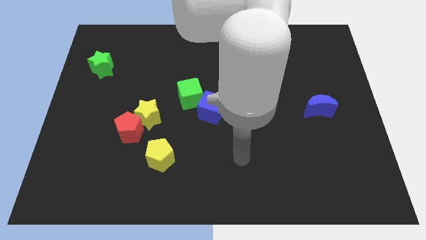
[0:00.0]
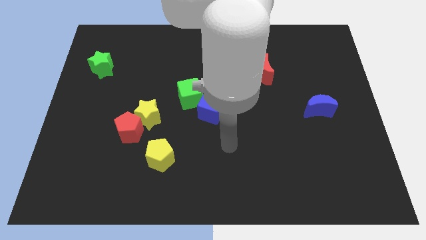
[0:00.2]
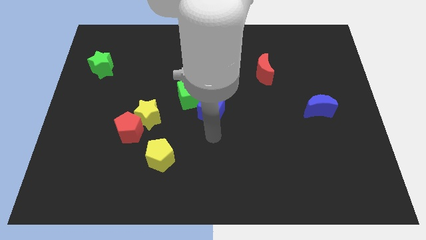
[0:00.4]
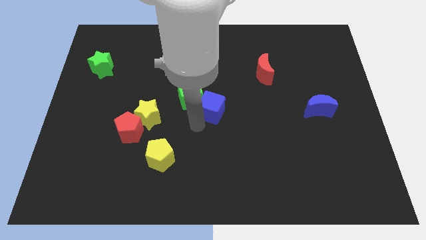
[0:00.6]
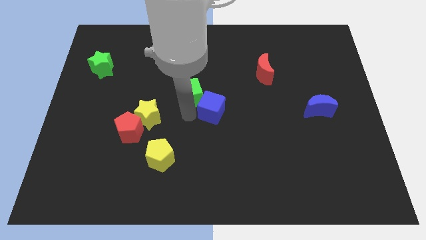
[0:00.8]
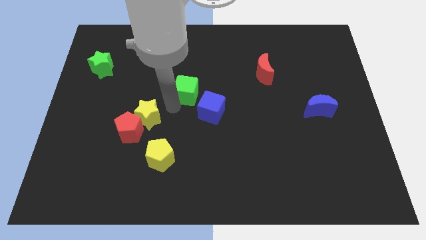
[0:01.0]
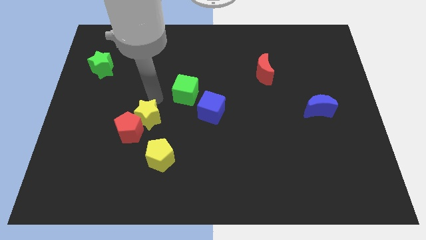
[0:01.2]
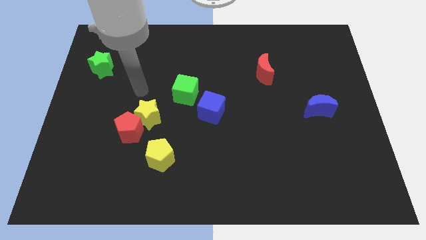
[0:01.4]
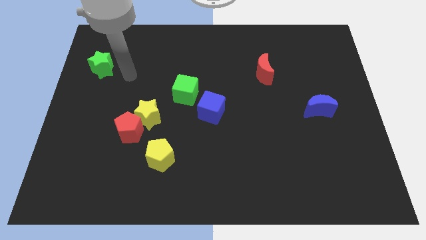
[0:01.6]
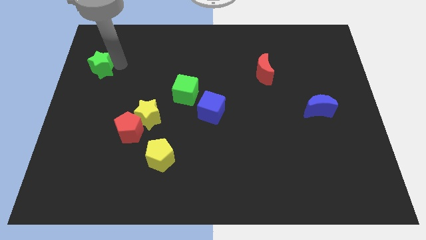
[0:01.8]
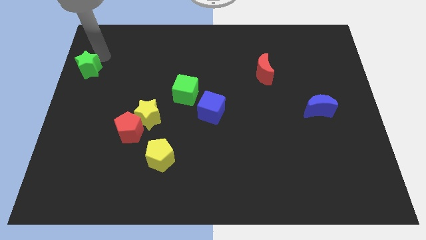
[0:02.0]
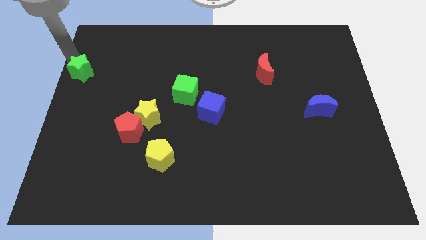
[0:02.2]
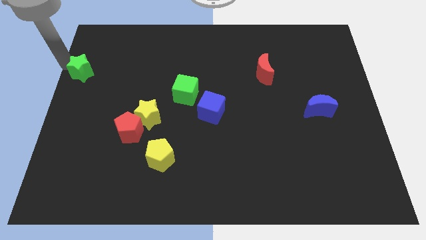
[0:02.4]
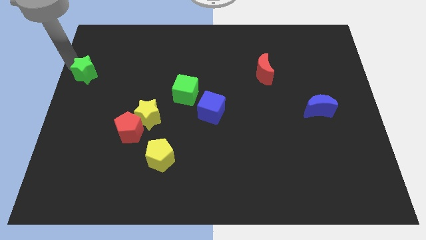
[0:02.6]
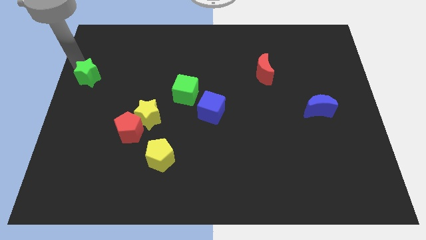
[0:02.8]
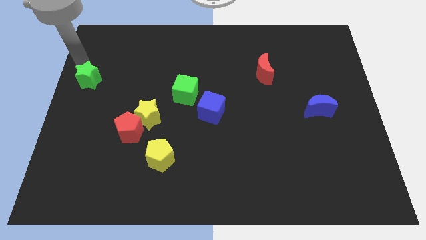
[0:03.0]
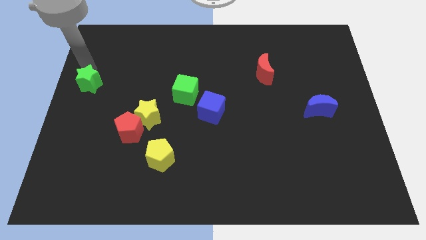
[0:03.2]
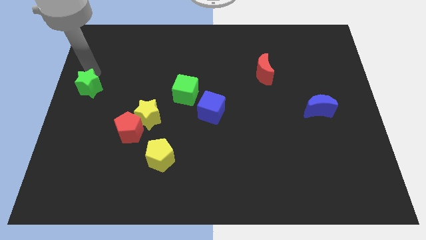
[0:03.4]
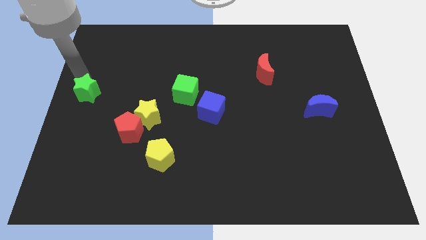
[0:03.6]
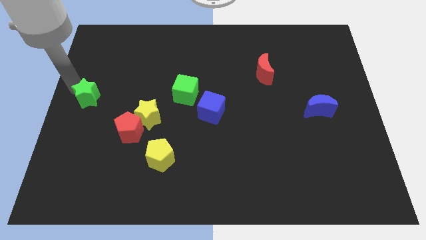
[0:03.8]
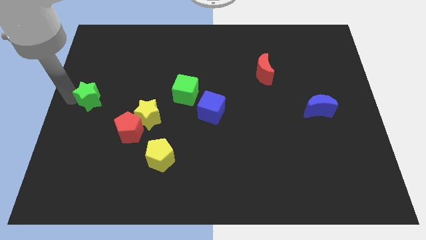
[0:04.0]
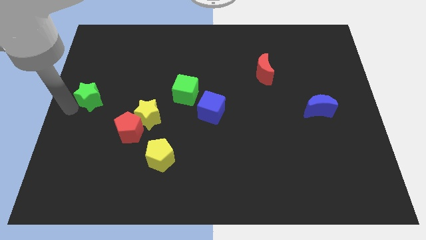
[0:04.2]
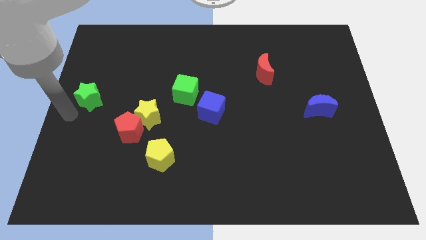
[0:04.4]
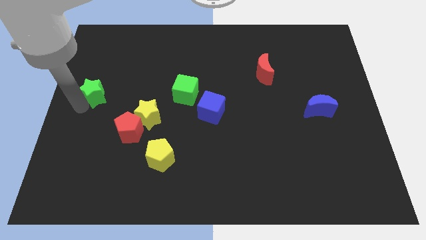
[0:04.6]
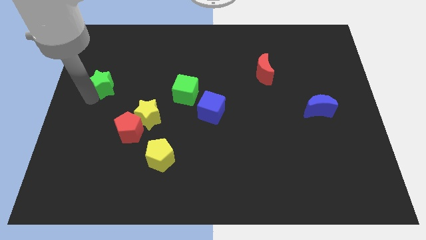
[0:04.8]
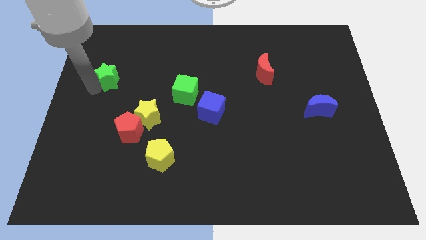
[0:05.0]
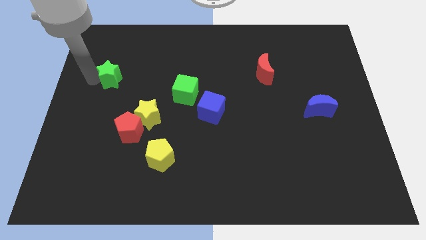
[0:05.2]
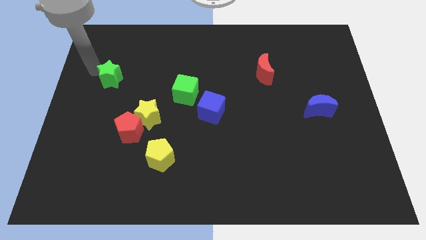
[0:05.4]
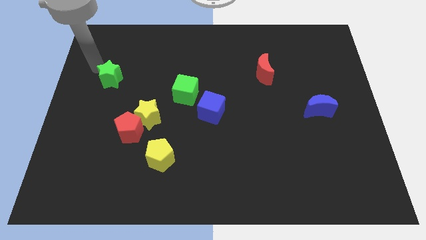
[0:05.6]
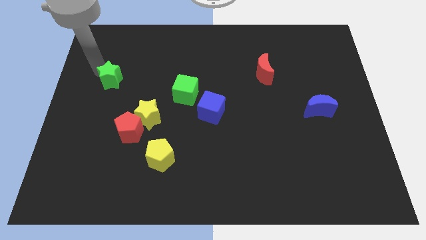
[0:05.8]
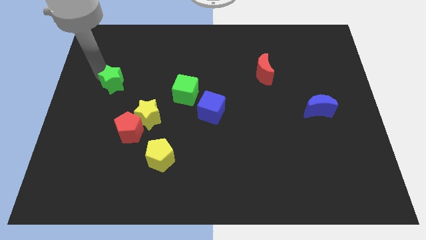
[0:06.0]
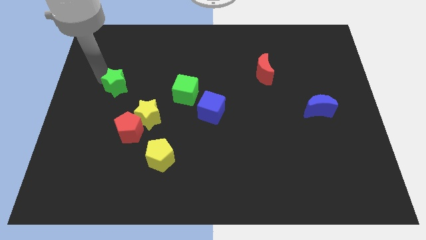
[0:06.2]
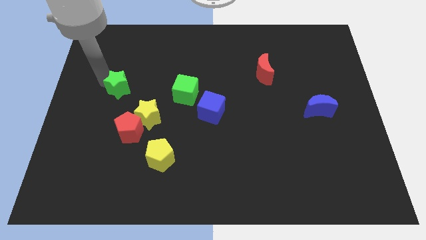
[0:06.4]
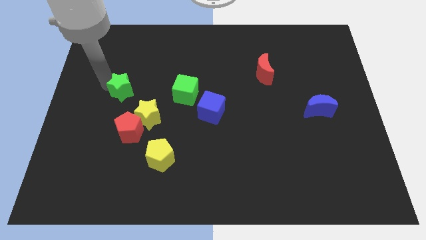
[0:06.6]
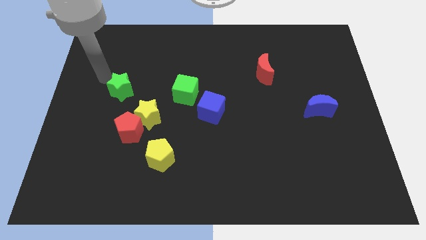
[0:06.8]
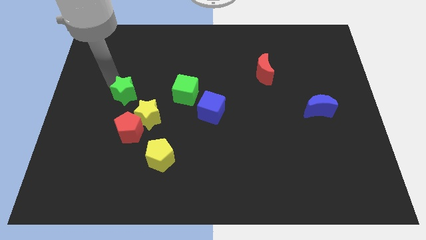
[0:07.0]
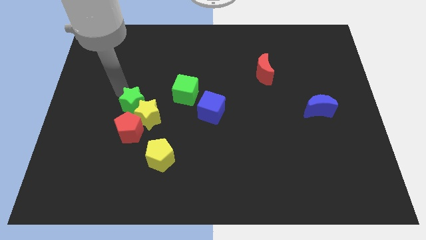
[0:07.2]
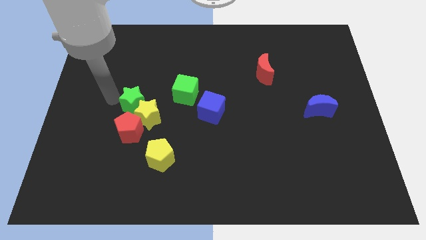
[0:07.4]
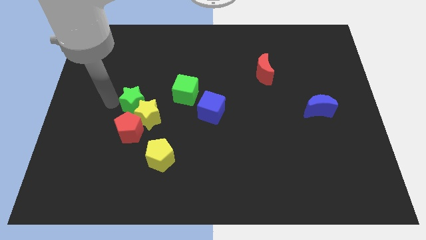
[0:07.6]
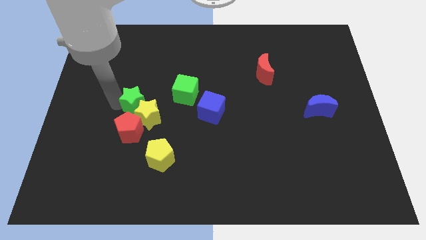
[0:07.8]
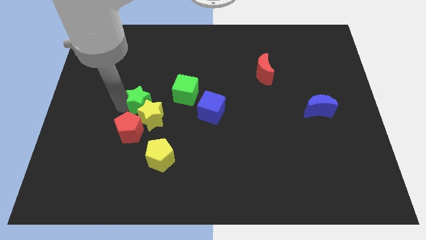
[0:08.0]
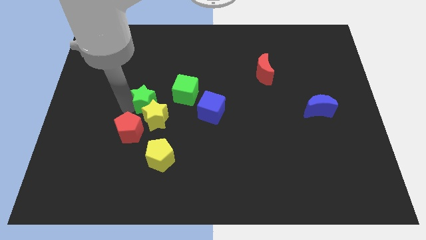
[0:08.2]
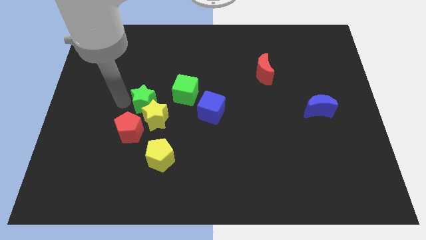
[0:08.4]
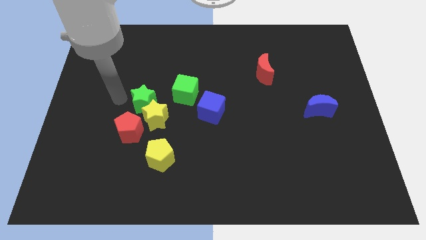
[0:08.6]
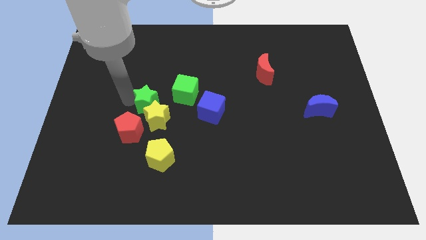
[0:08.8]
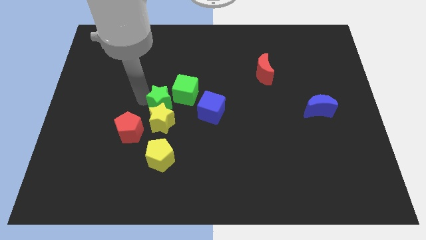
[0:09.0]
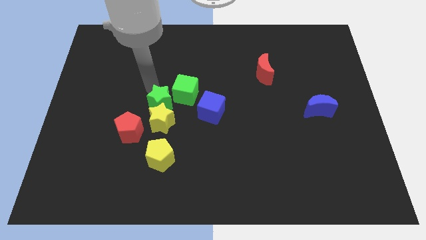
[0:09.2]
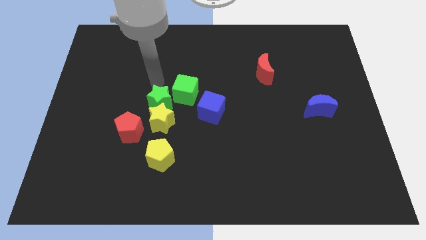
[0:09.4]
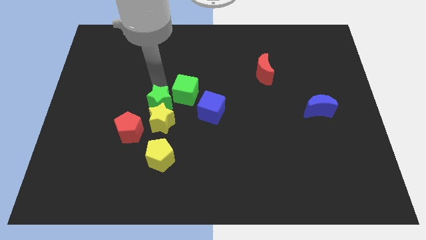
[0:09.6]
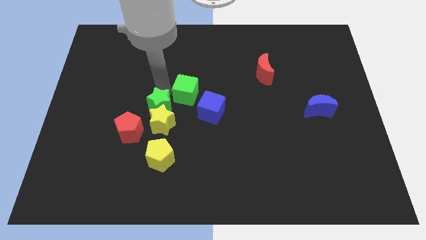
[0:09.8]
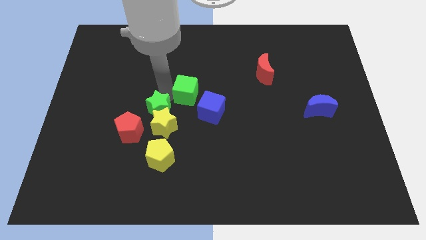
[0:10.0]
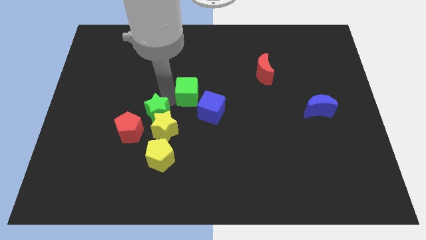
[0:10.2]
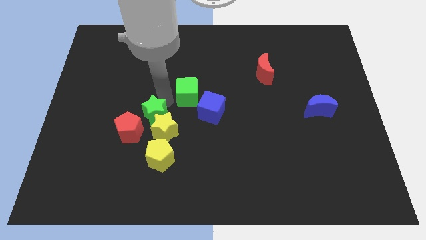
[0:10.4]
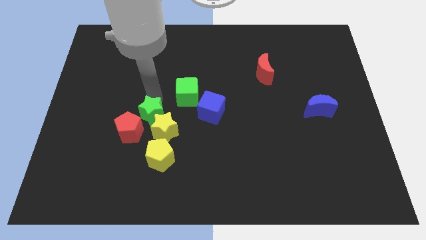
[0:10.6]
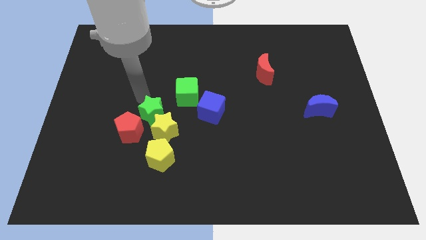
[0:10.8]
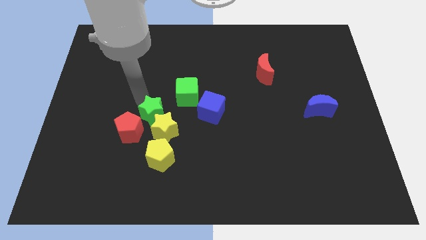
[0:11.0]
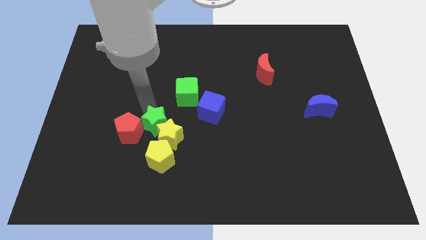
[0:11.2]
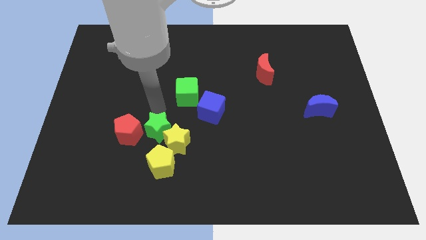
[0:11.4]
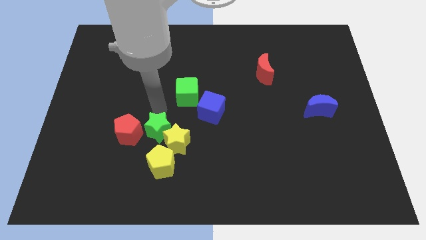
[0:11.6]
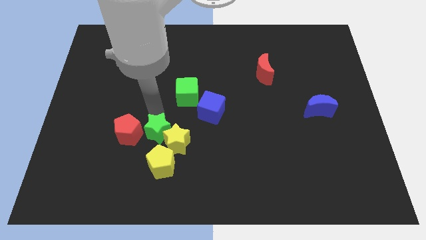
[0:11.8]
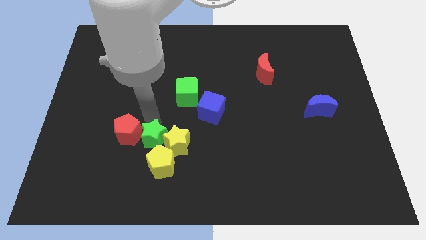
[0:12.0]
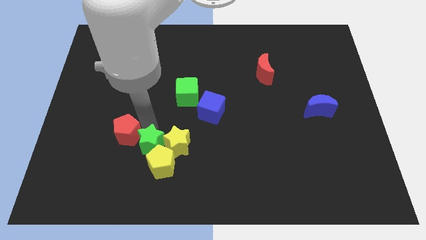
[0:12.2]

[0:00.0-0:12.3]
put the green star to the yellow pentagon

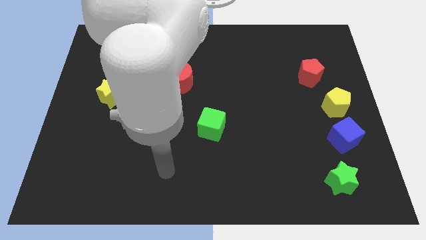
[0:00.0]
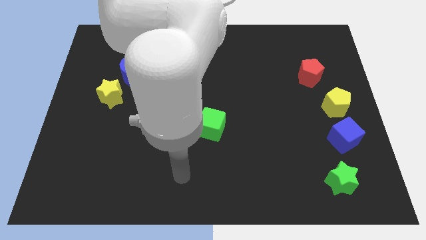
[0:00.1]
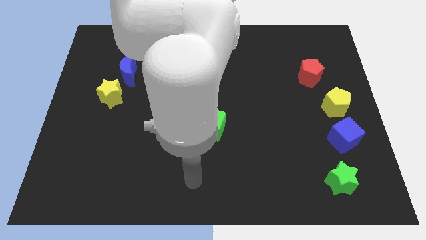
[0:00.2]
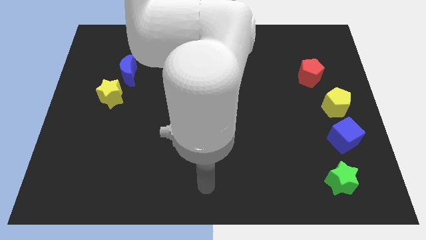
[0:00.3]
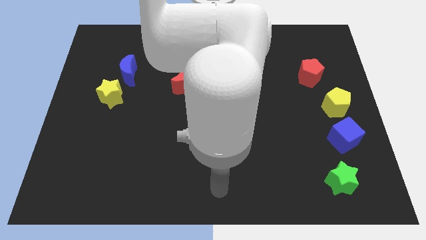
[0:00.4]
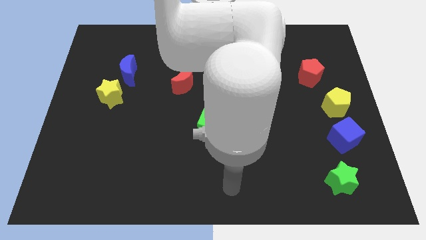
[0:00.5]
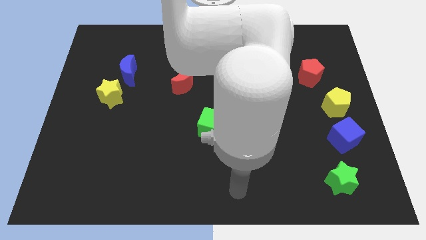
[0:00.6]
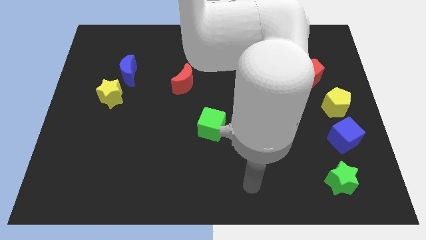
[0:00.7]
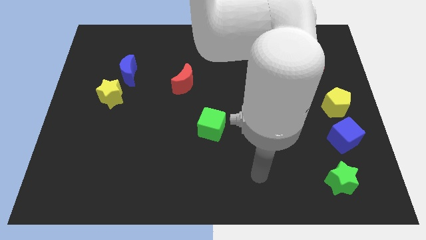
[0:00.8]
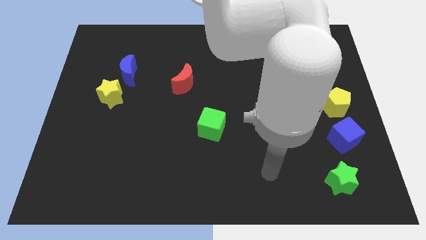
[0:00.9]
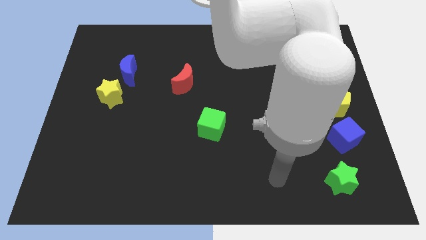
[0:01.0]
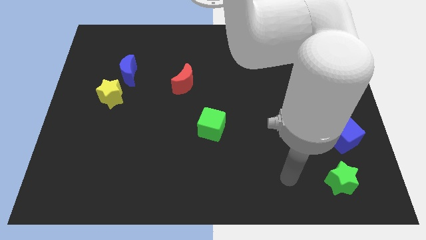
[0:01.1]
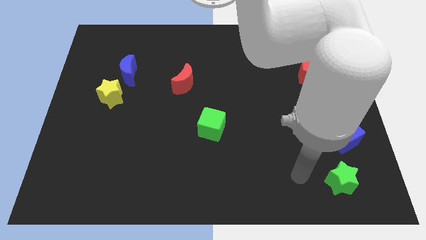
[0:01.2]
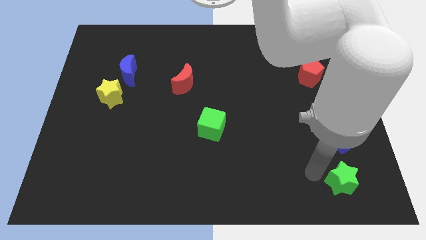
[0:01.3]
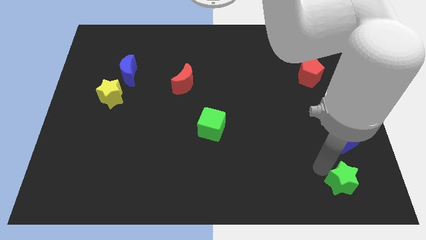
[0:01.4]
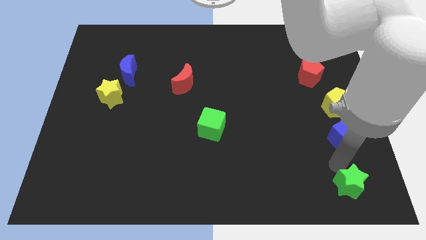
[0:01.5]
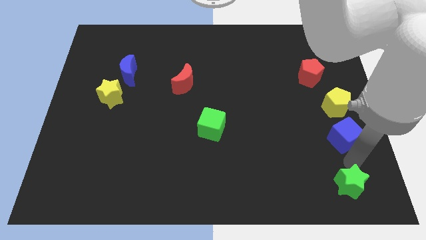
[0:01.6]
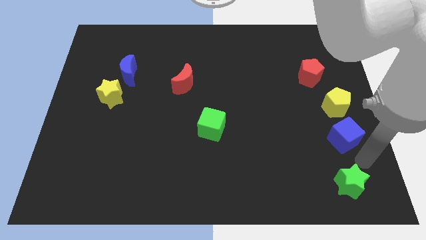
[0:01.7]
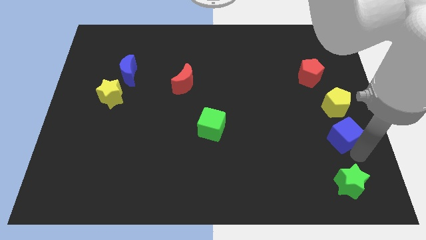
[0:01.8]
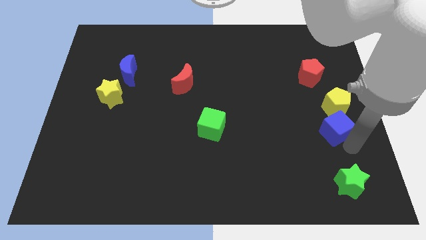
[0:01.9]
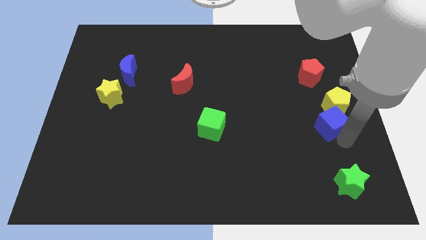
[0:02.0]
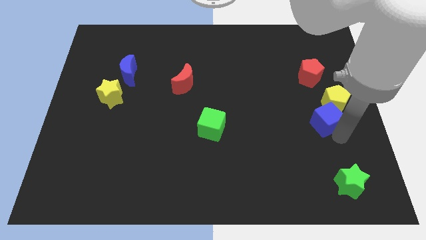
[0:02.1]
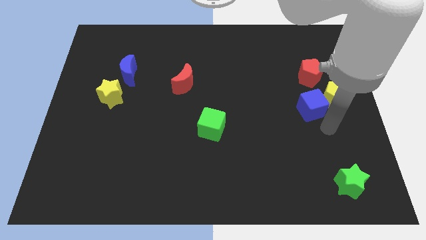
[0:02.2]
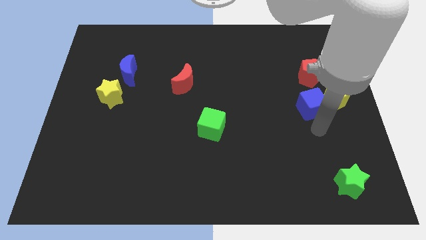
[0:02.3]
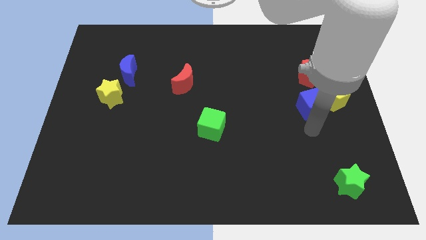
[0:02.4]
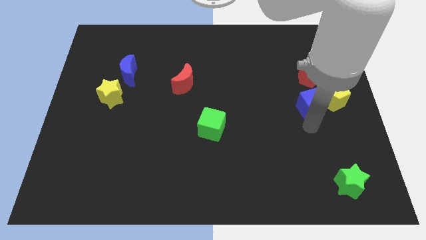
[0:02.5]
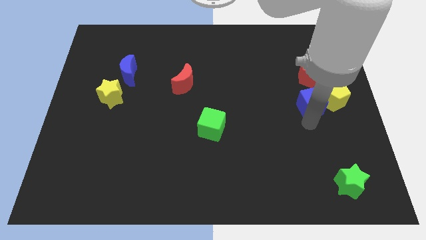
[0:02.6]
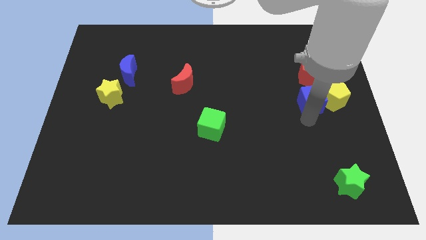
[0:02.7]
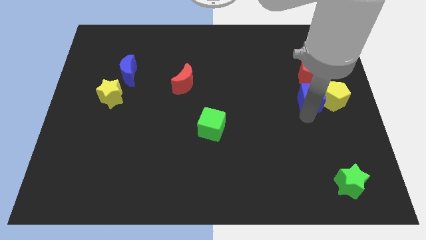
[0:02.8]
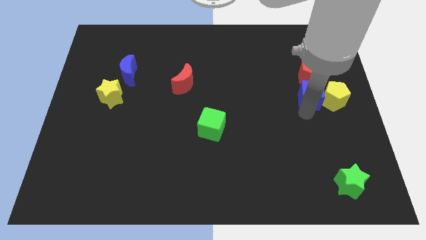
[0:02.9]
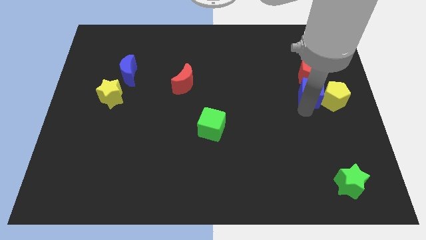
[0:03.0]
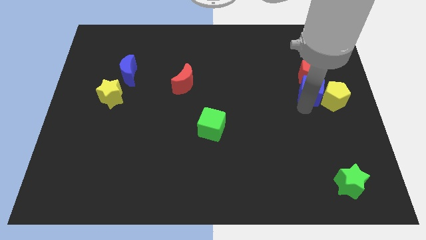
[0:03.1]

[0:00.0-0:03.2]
put the blue cube close to the red pentagon
